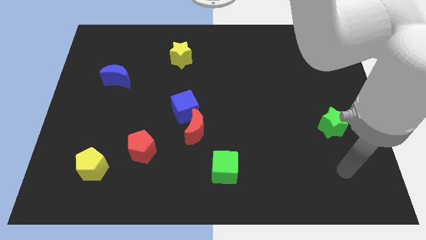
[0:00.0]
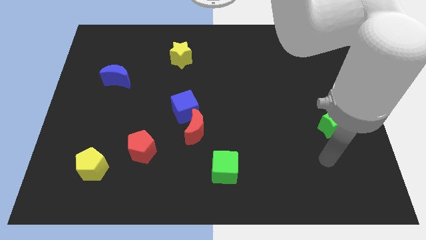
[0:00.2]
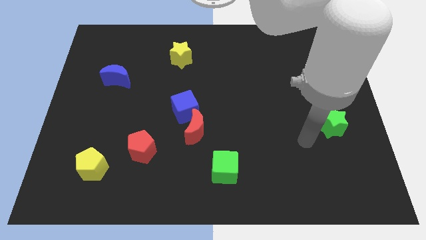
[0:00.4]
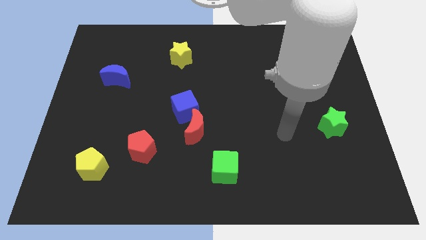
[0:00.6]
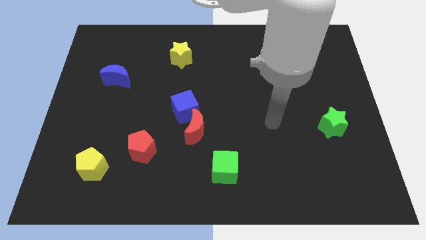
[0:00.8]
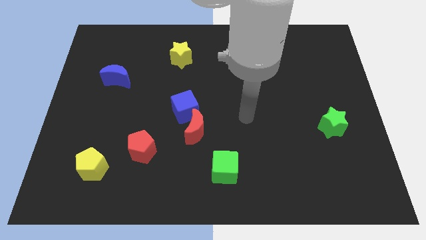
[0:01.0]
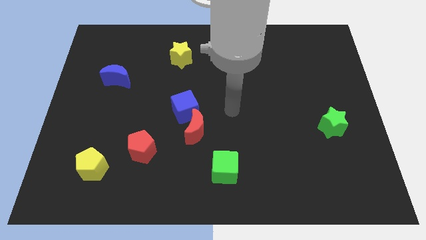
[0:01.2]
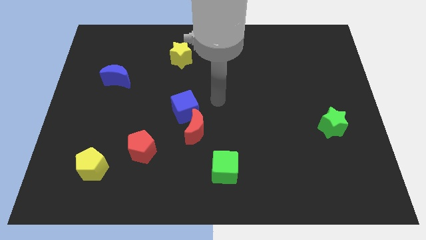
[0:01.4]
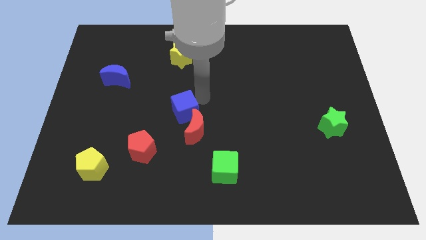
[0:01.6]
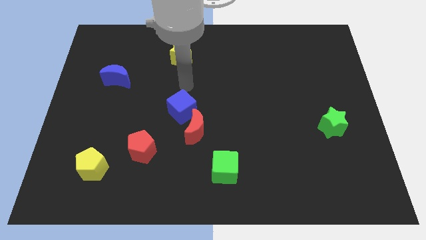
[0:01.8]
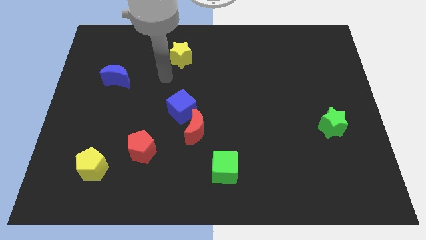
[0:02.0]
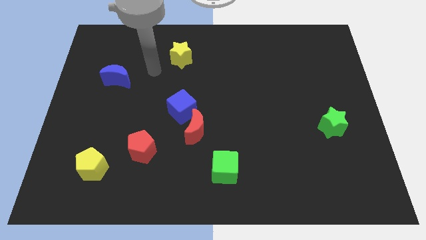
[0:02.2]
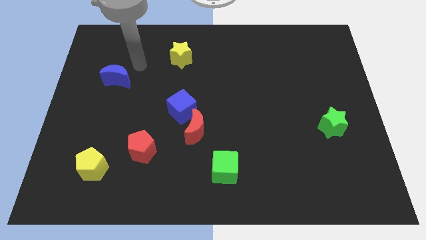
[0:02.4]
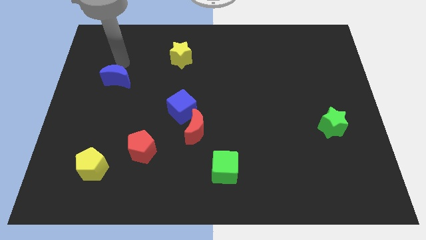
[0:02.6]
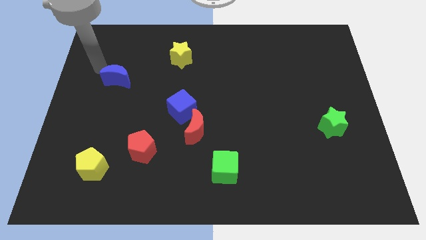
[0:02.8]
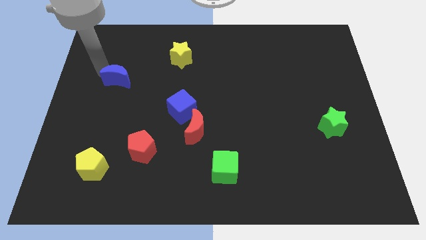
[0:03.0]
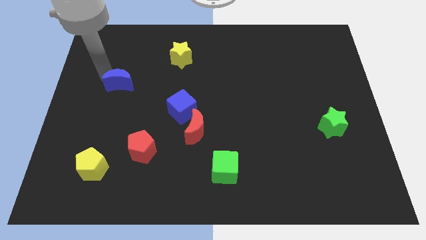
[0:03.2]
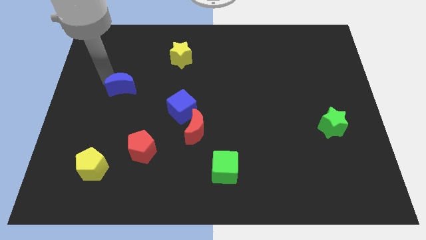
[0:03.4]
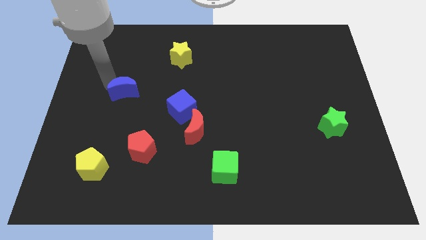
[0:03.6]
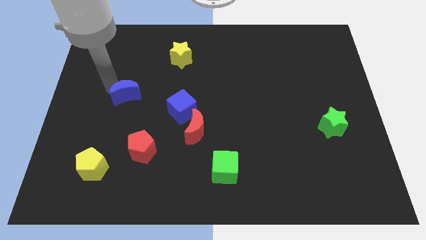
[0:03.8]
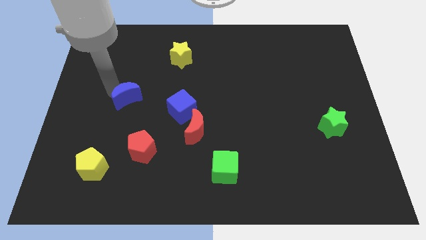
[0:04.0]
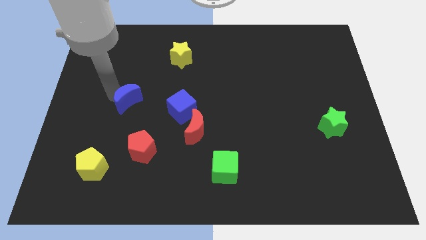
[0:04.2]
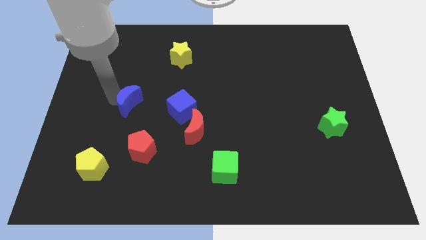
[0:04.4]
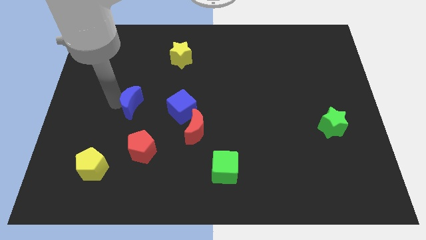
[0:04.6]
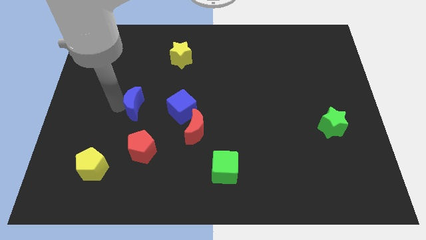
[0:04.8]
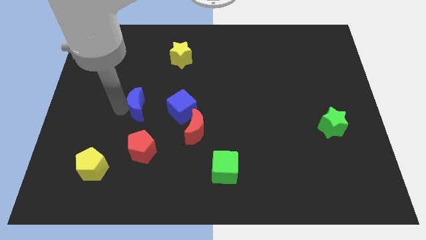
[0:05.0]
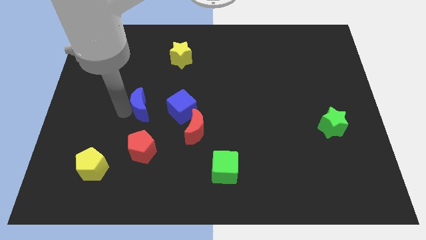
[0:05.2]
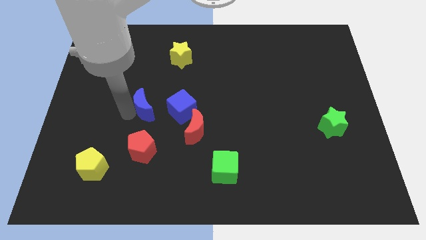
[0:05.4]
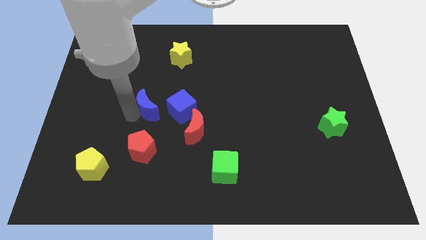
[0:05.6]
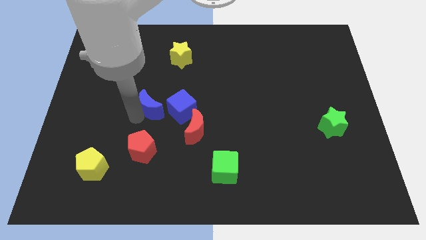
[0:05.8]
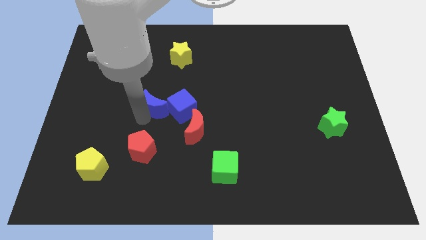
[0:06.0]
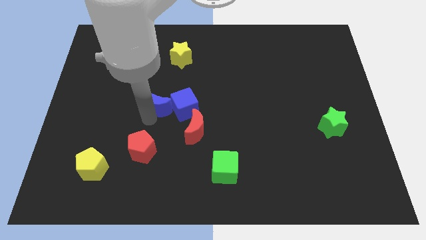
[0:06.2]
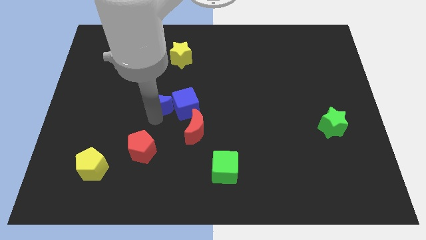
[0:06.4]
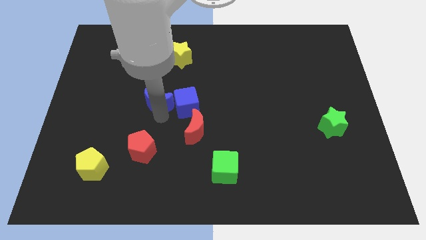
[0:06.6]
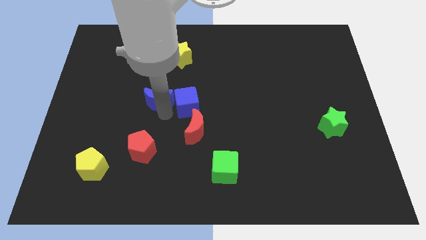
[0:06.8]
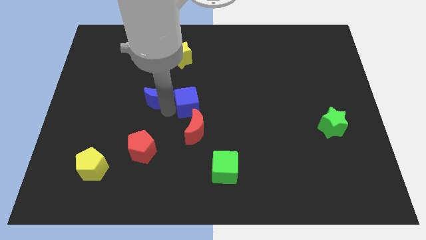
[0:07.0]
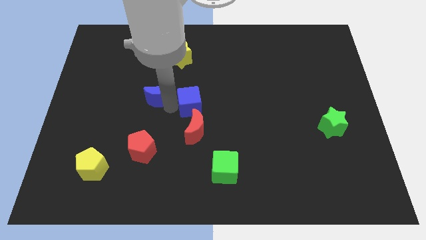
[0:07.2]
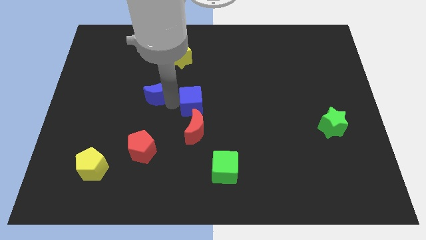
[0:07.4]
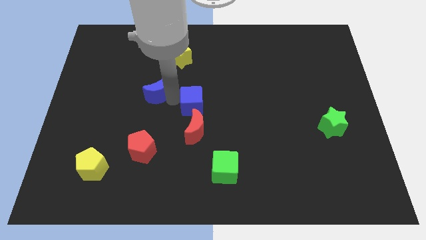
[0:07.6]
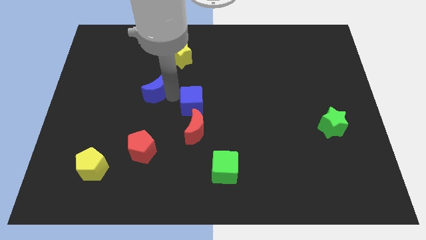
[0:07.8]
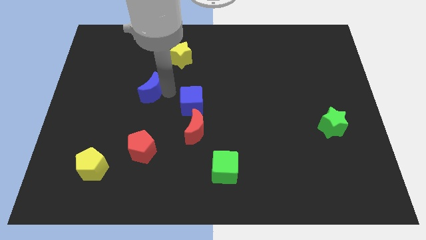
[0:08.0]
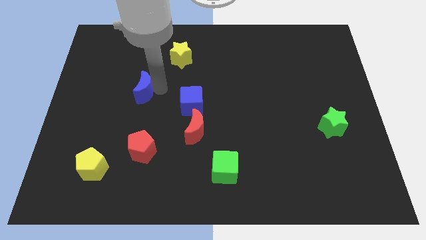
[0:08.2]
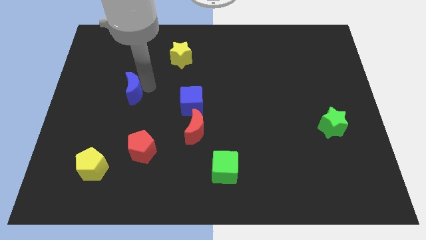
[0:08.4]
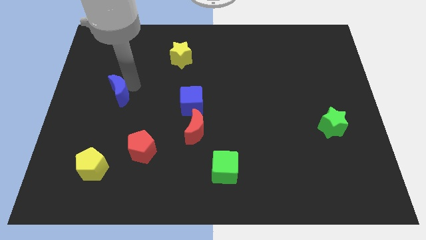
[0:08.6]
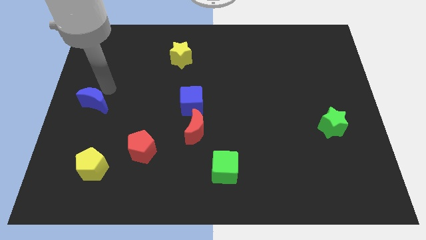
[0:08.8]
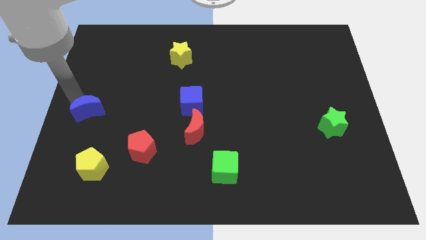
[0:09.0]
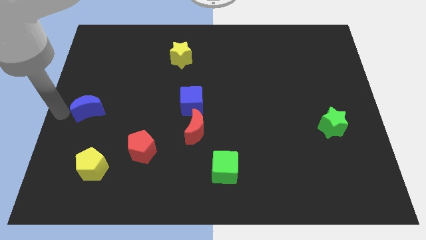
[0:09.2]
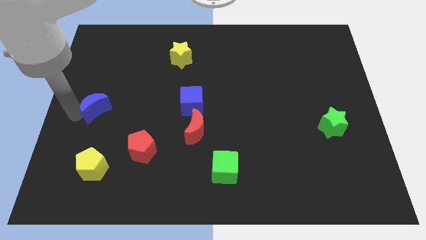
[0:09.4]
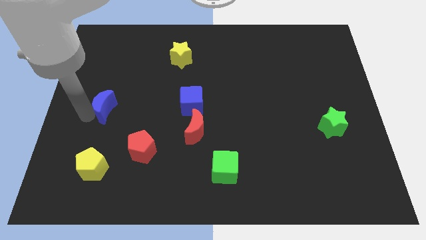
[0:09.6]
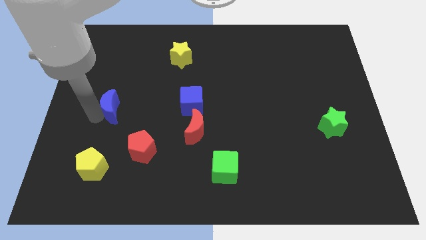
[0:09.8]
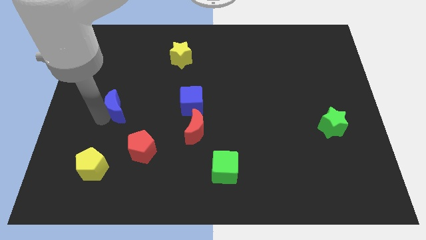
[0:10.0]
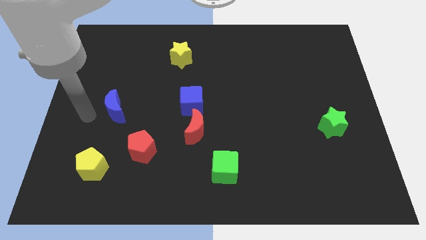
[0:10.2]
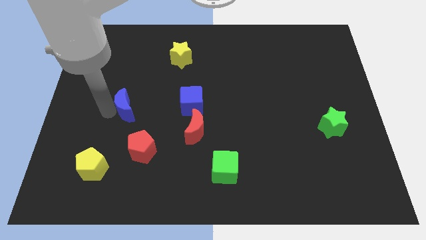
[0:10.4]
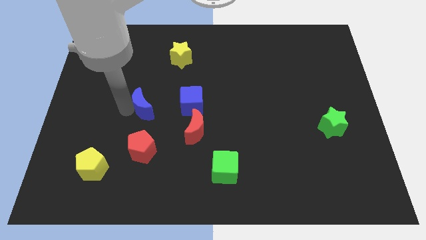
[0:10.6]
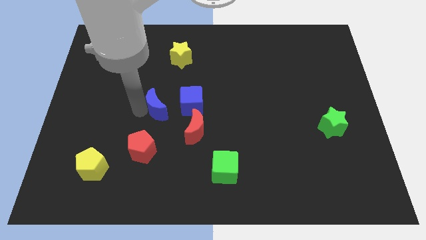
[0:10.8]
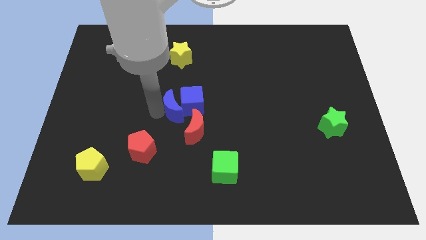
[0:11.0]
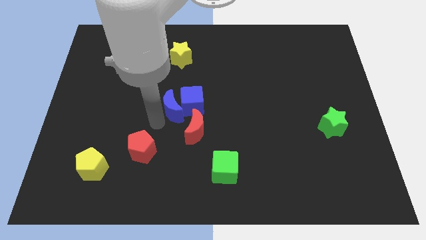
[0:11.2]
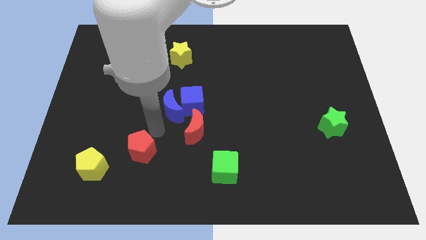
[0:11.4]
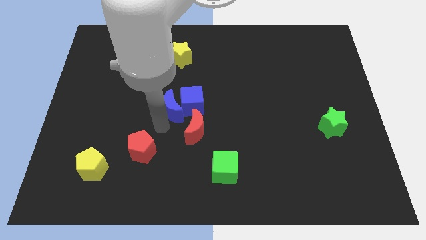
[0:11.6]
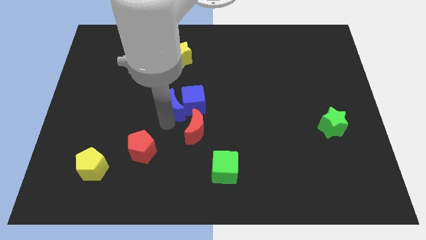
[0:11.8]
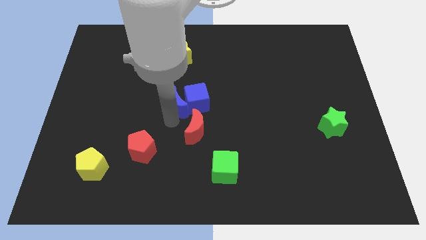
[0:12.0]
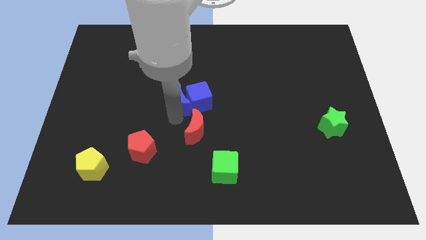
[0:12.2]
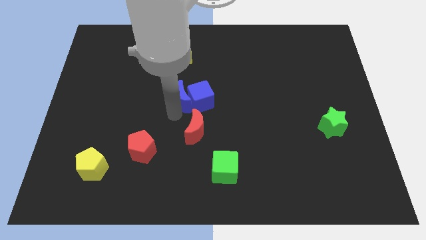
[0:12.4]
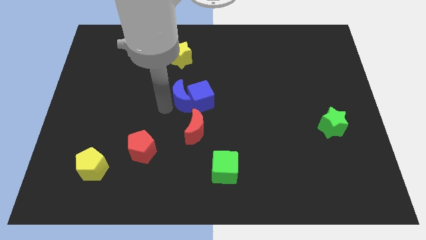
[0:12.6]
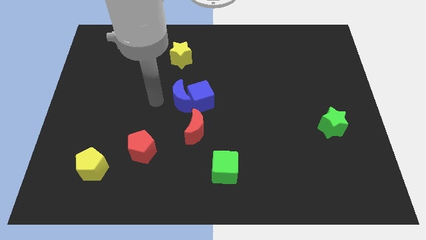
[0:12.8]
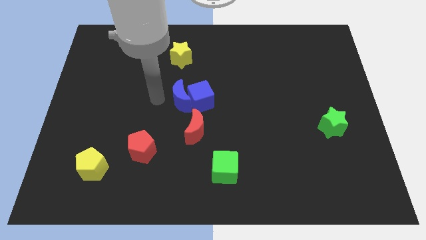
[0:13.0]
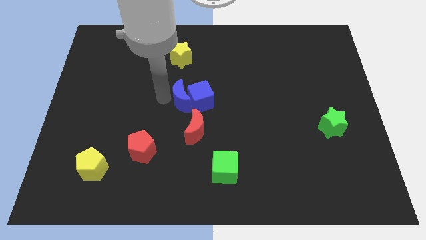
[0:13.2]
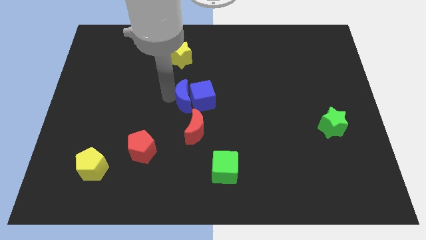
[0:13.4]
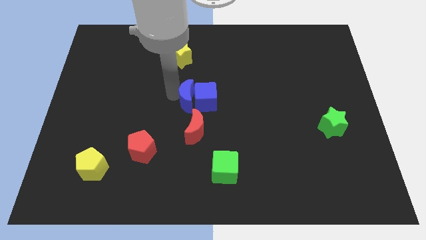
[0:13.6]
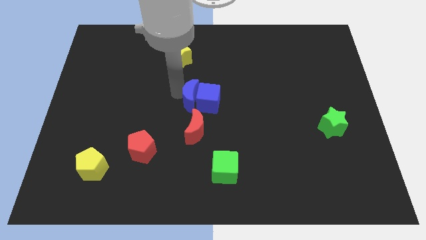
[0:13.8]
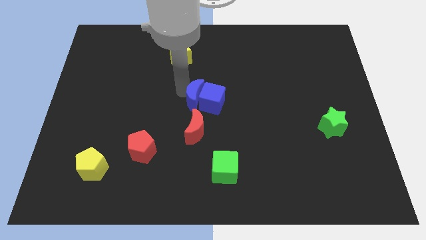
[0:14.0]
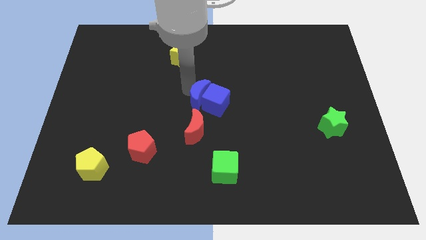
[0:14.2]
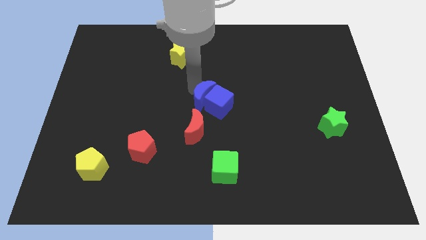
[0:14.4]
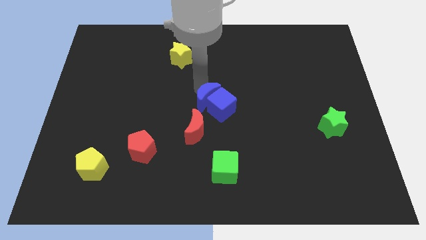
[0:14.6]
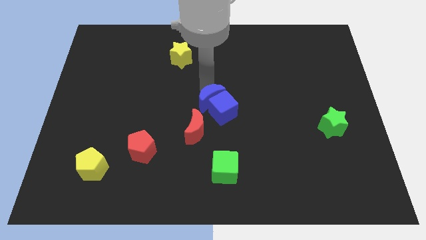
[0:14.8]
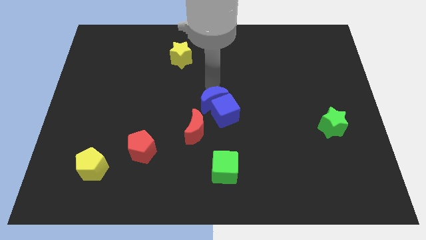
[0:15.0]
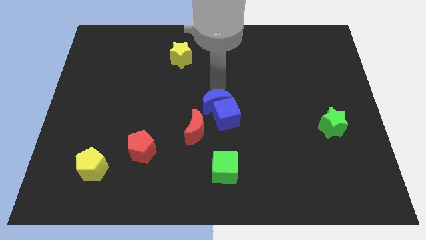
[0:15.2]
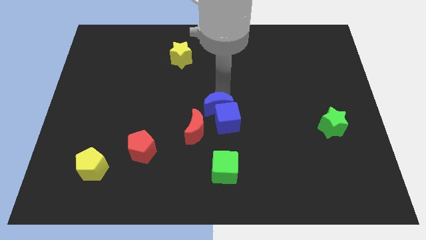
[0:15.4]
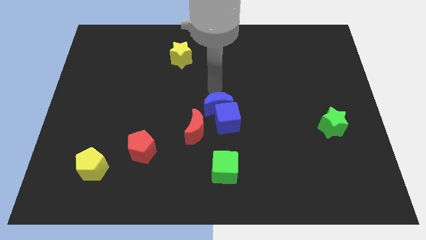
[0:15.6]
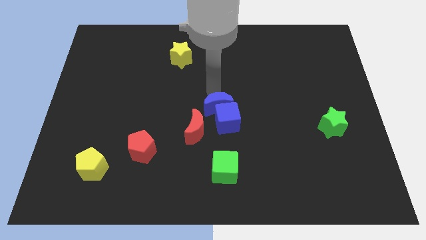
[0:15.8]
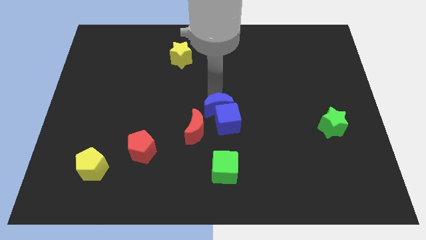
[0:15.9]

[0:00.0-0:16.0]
slide the blue moon to the top of the green cube
